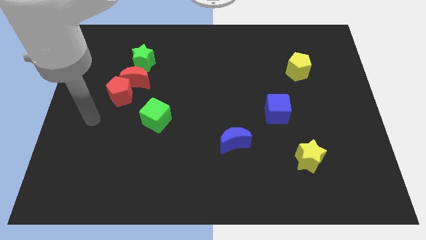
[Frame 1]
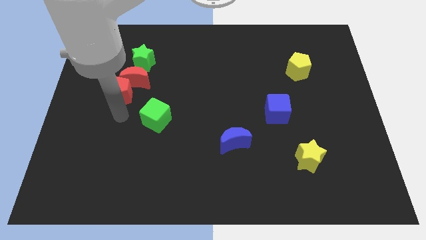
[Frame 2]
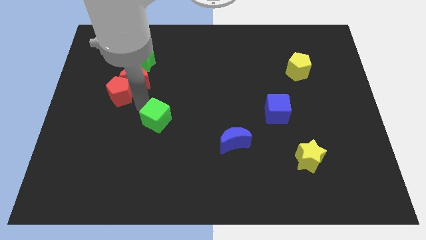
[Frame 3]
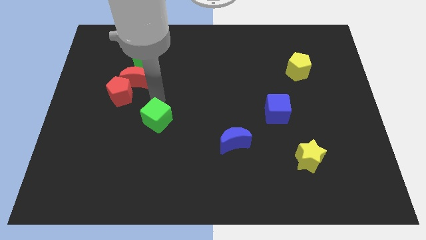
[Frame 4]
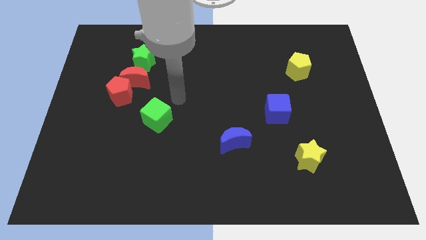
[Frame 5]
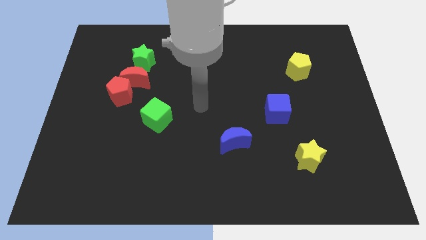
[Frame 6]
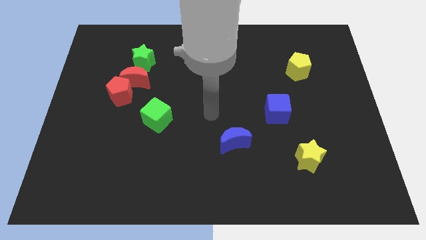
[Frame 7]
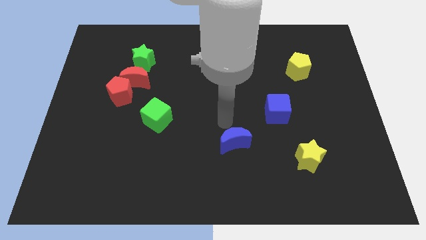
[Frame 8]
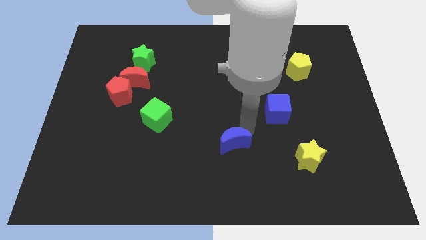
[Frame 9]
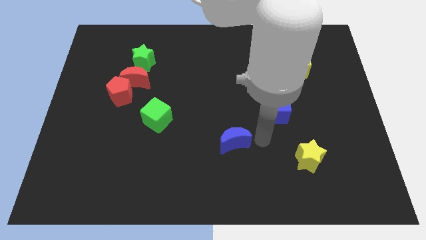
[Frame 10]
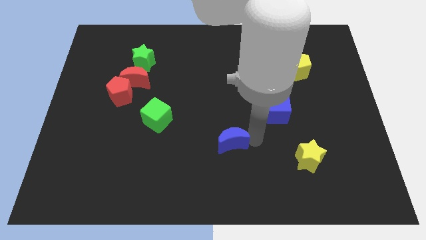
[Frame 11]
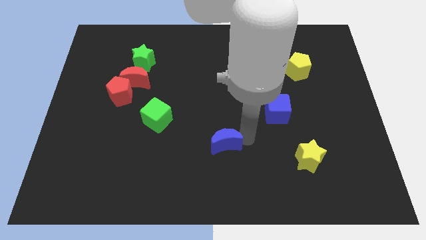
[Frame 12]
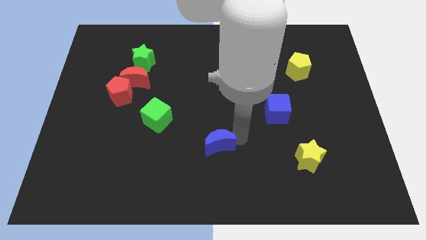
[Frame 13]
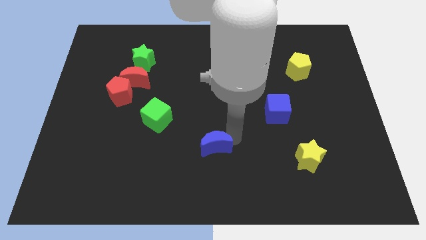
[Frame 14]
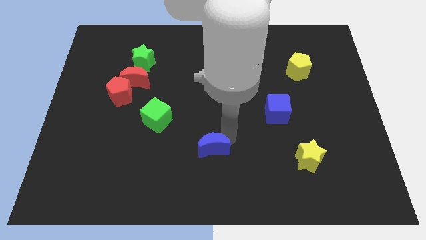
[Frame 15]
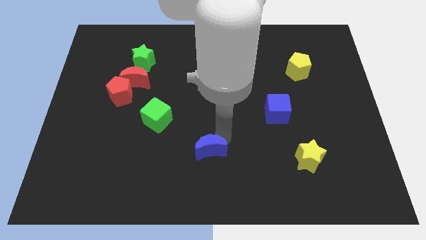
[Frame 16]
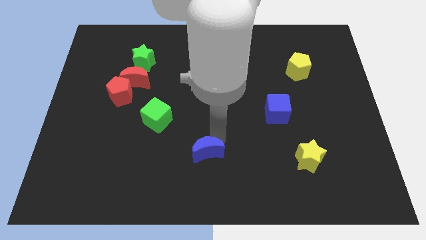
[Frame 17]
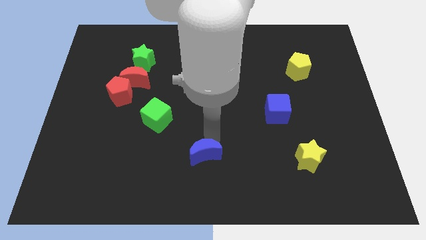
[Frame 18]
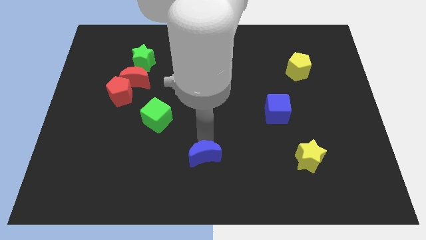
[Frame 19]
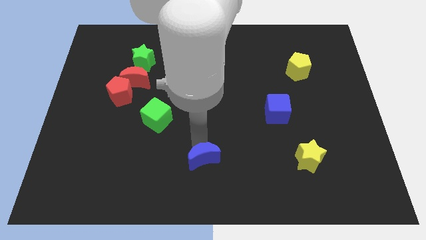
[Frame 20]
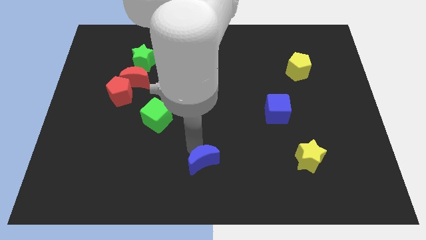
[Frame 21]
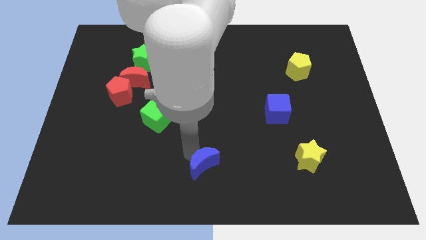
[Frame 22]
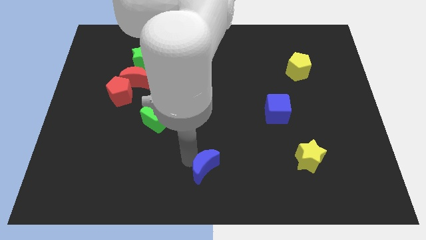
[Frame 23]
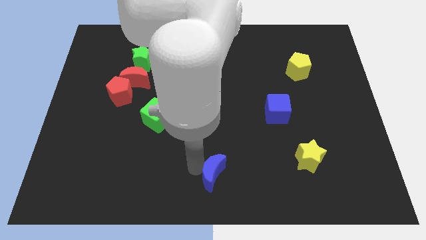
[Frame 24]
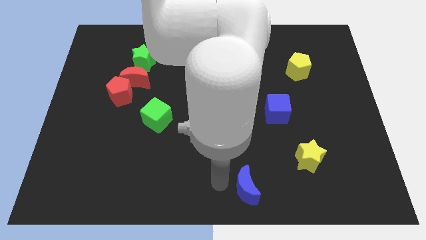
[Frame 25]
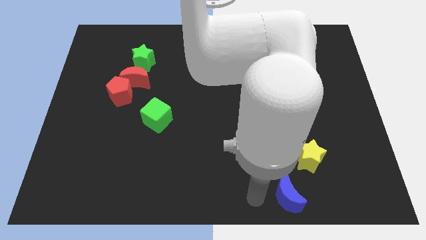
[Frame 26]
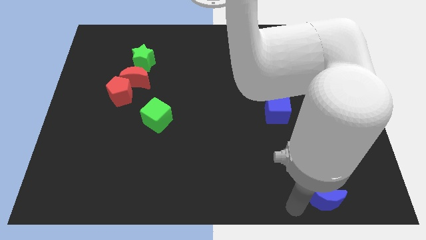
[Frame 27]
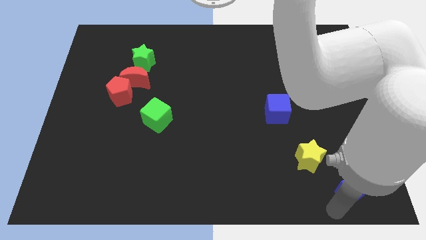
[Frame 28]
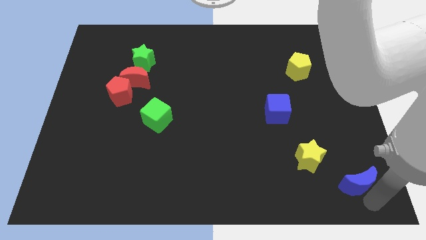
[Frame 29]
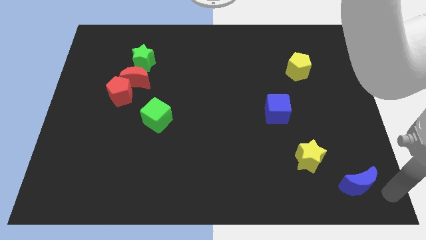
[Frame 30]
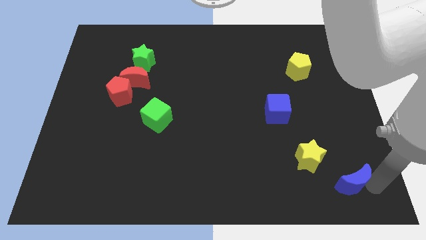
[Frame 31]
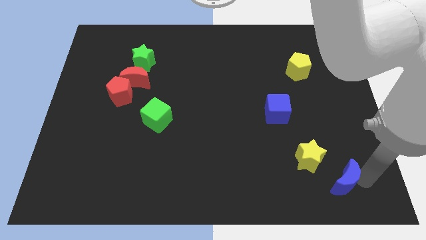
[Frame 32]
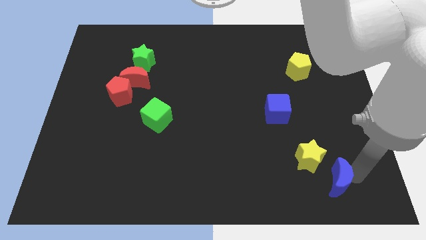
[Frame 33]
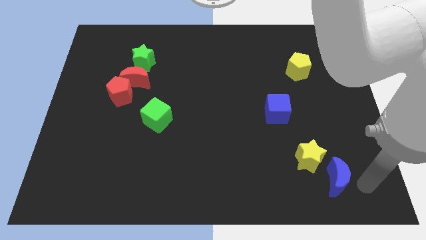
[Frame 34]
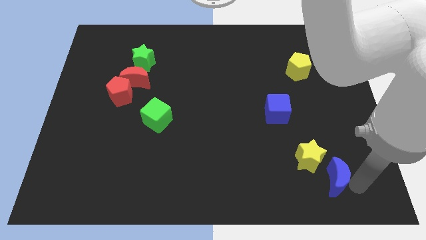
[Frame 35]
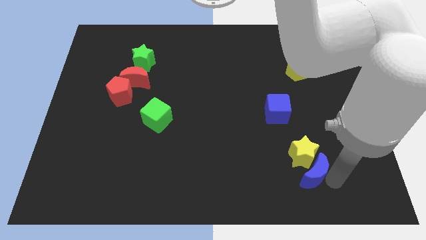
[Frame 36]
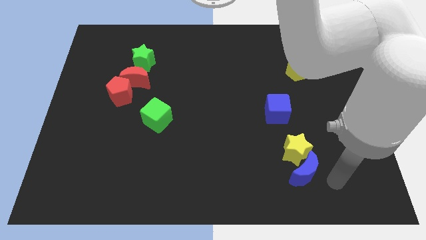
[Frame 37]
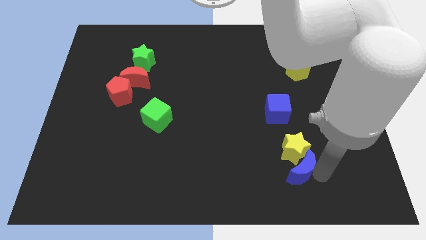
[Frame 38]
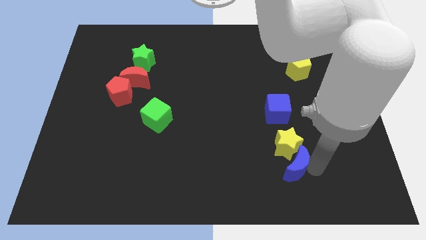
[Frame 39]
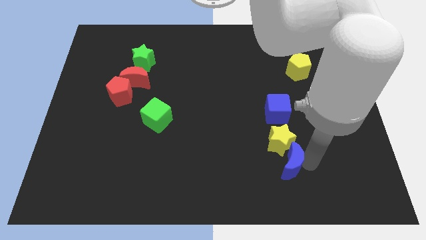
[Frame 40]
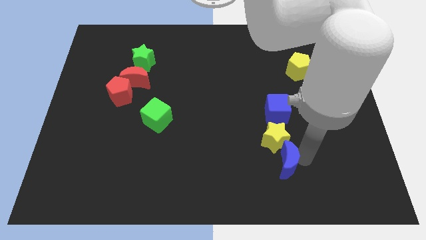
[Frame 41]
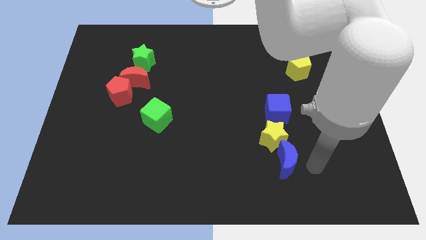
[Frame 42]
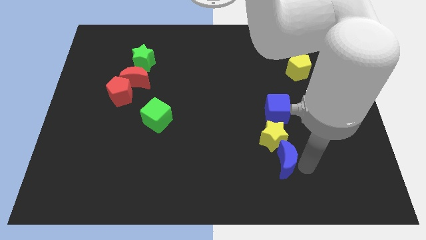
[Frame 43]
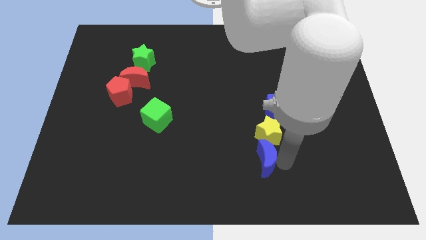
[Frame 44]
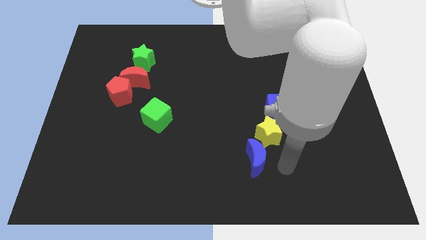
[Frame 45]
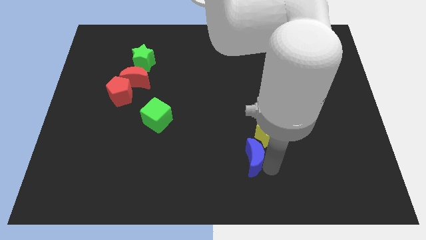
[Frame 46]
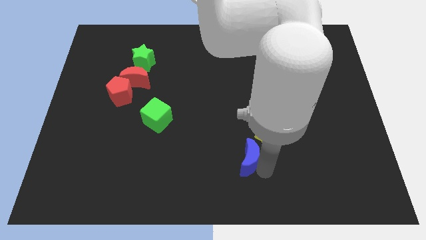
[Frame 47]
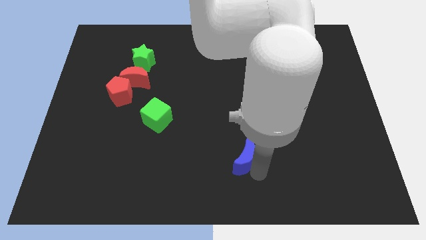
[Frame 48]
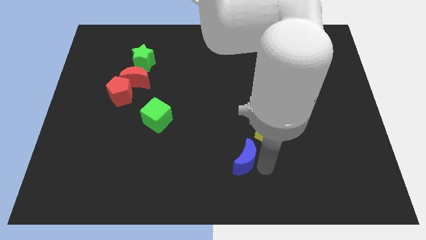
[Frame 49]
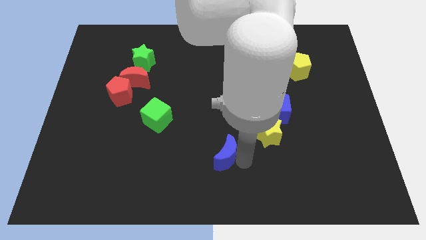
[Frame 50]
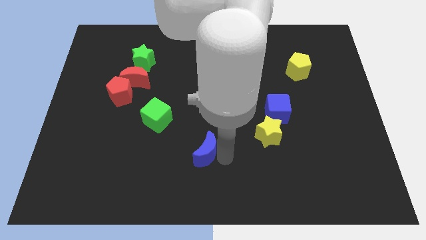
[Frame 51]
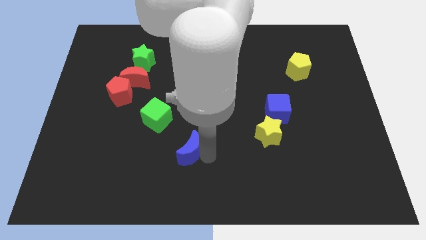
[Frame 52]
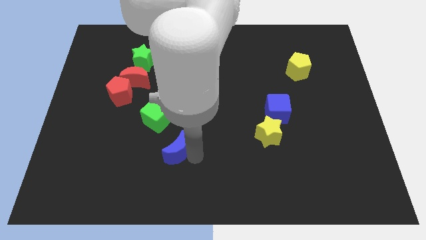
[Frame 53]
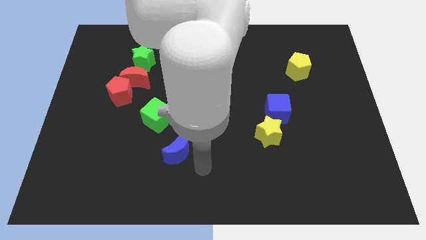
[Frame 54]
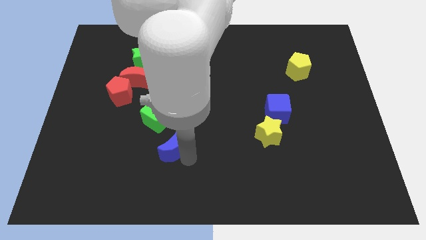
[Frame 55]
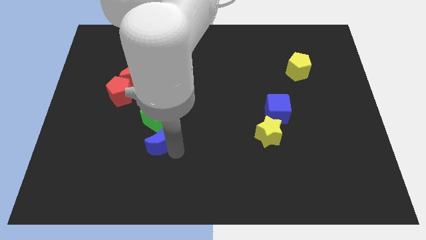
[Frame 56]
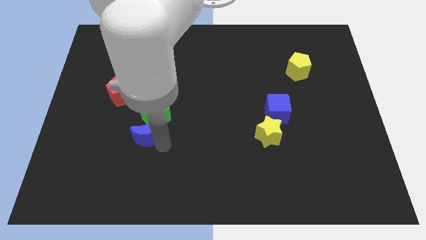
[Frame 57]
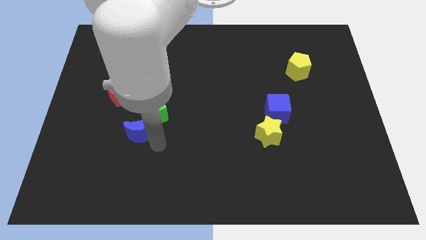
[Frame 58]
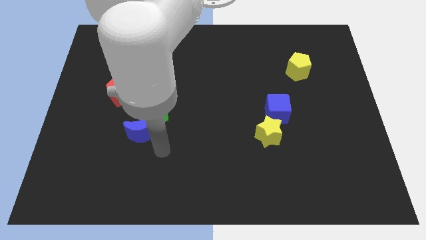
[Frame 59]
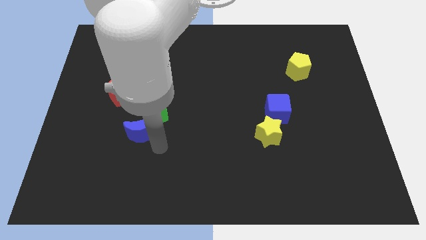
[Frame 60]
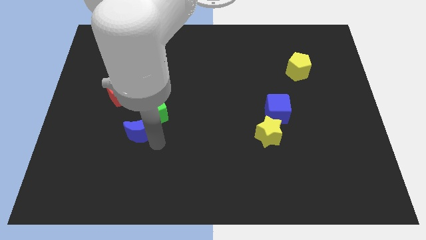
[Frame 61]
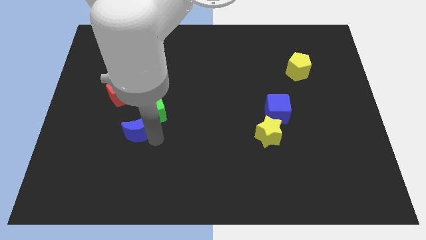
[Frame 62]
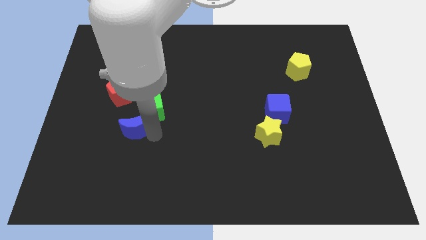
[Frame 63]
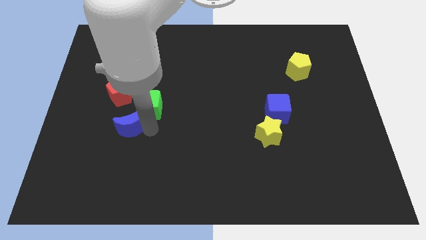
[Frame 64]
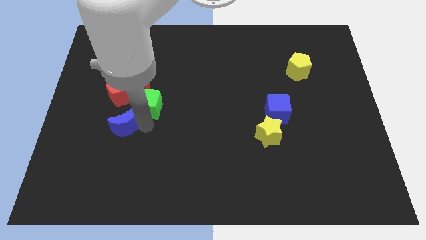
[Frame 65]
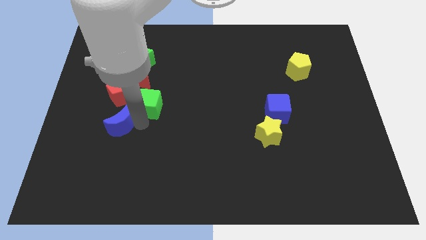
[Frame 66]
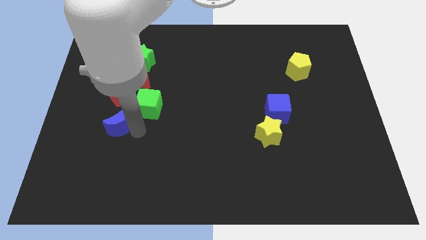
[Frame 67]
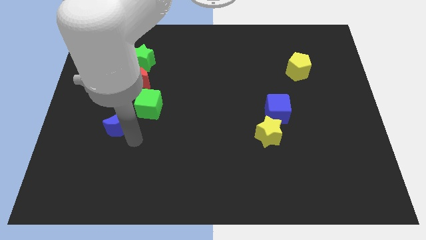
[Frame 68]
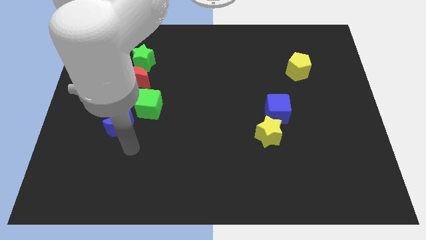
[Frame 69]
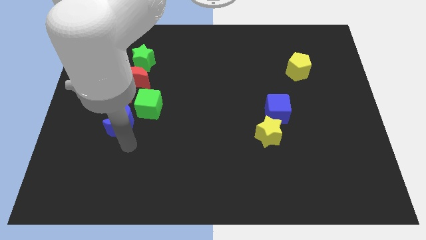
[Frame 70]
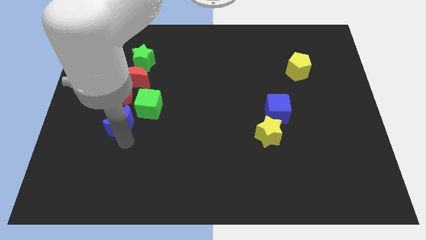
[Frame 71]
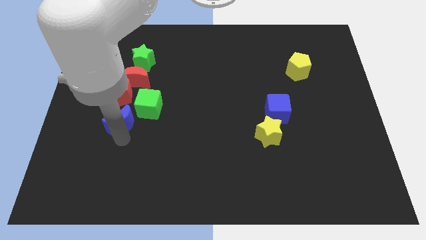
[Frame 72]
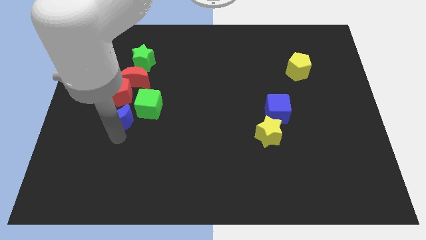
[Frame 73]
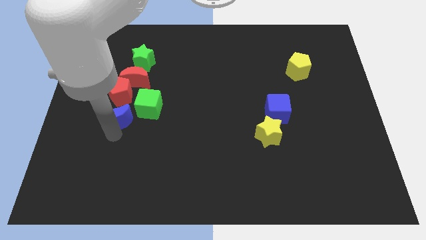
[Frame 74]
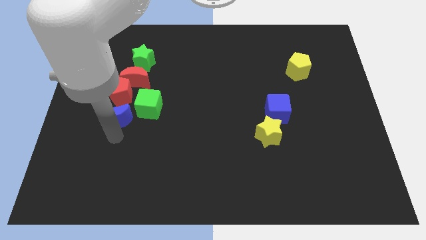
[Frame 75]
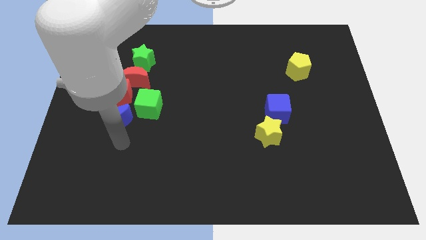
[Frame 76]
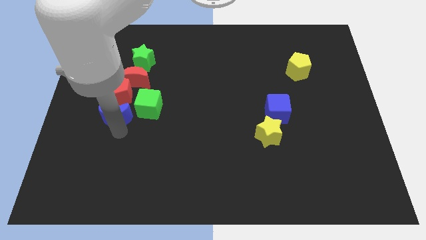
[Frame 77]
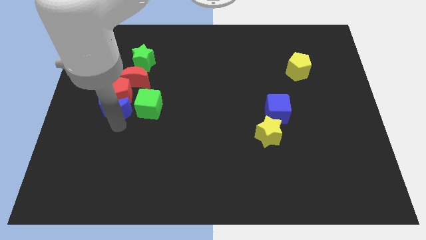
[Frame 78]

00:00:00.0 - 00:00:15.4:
push the blue moon to the bottom left of the red moon
